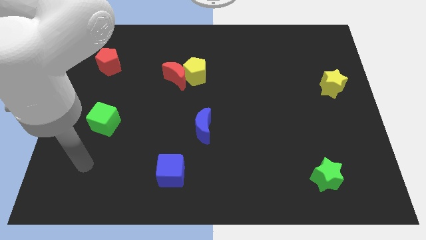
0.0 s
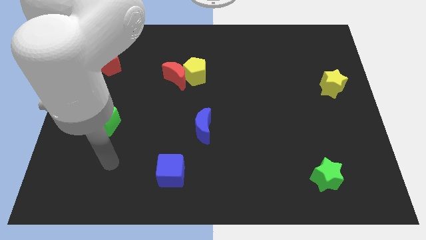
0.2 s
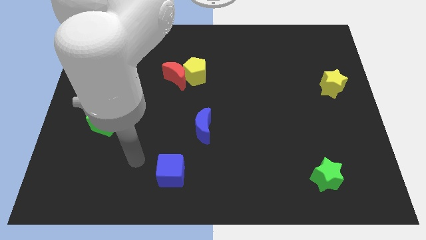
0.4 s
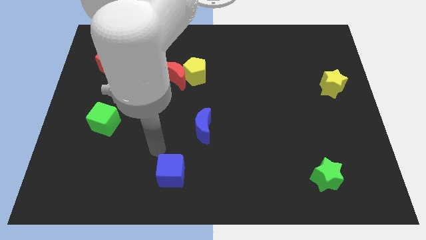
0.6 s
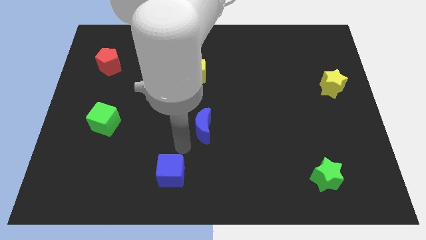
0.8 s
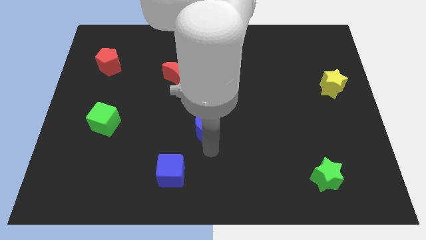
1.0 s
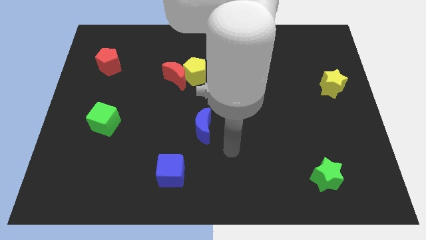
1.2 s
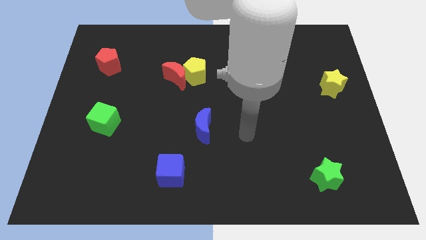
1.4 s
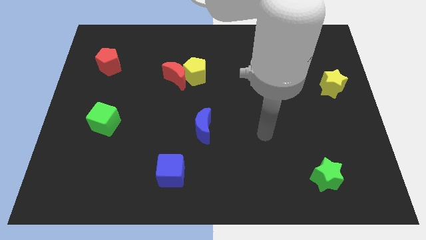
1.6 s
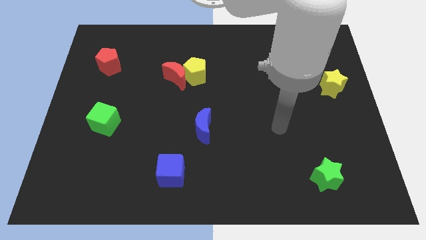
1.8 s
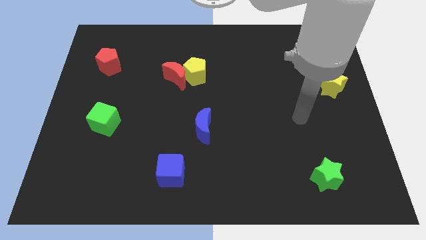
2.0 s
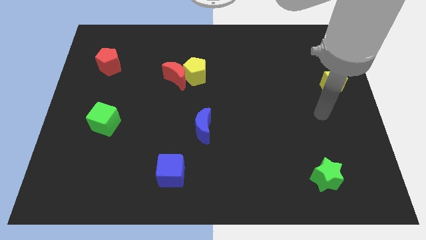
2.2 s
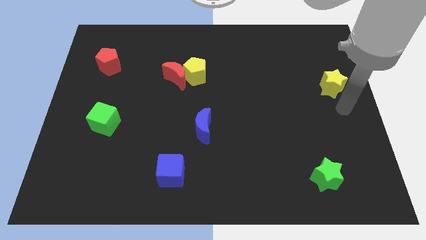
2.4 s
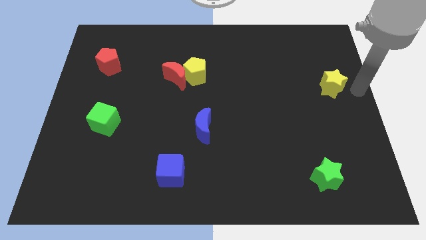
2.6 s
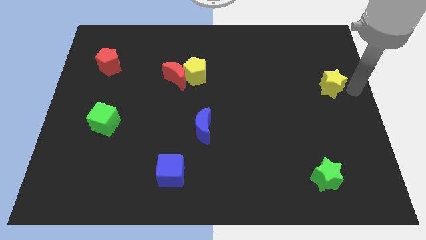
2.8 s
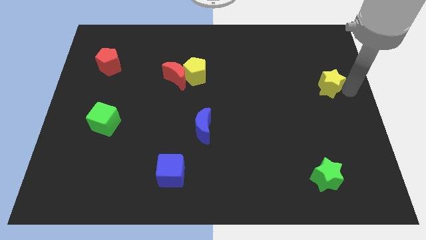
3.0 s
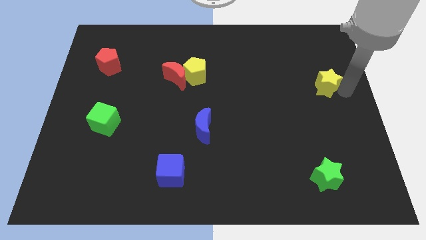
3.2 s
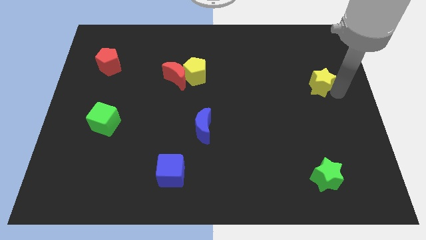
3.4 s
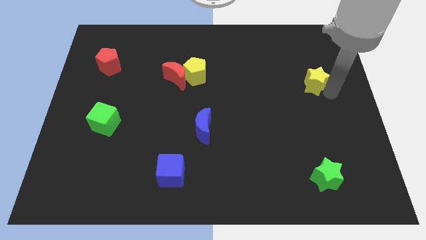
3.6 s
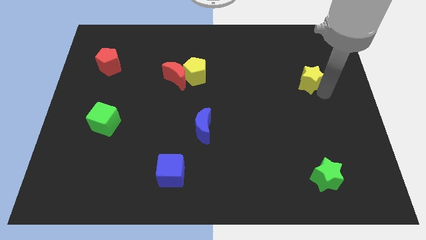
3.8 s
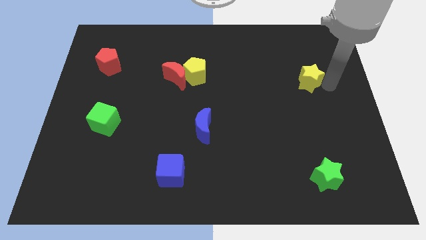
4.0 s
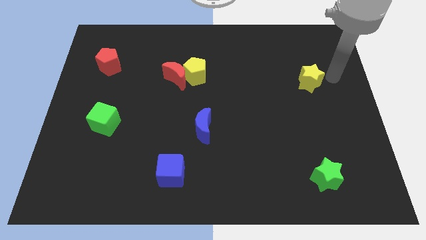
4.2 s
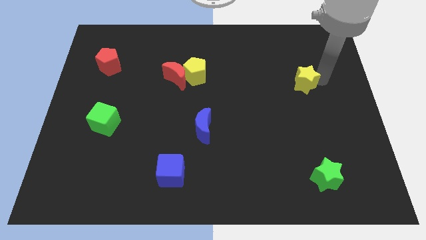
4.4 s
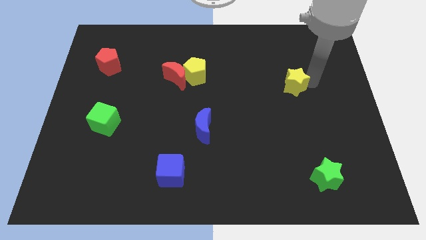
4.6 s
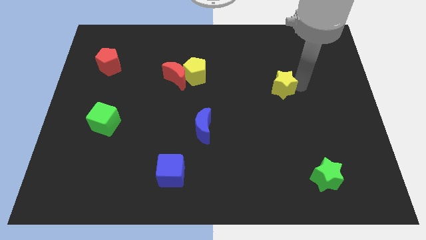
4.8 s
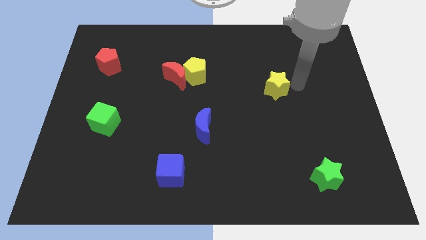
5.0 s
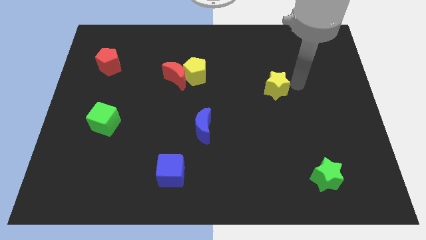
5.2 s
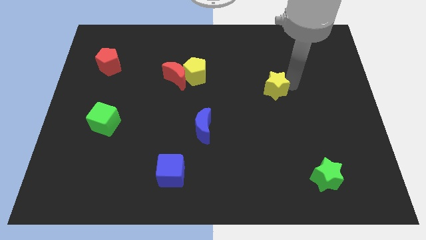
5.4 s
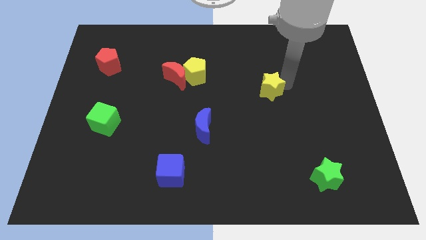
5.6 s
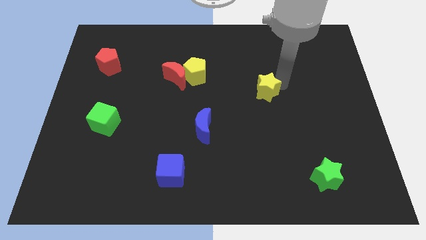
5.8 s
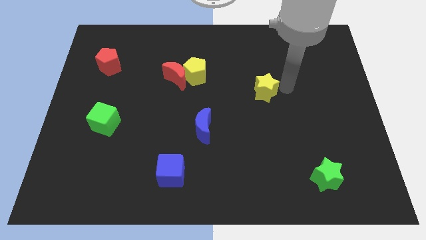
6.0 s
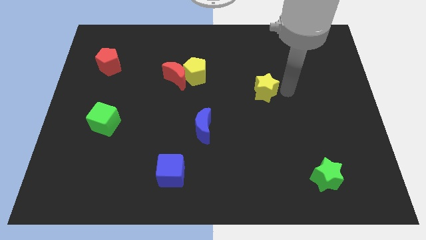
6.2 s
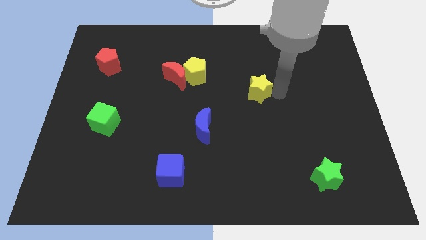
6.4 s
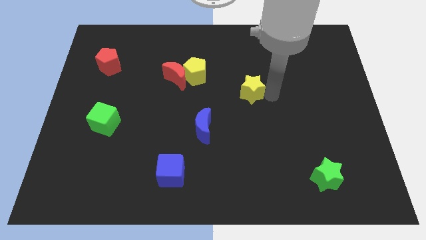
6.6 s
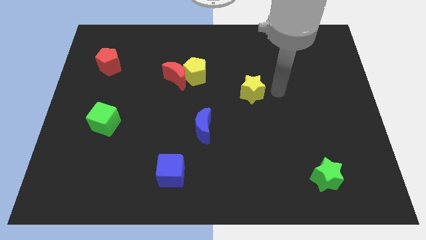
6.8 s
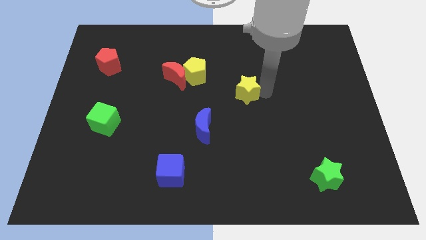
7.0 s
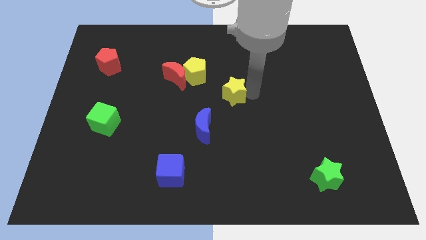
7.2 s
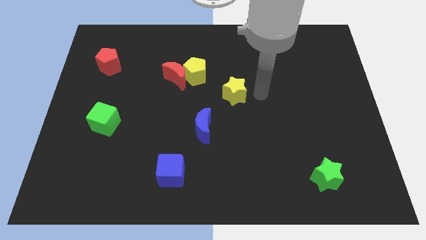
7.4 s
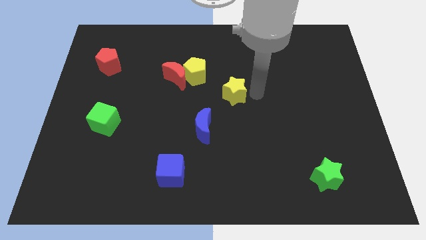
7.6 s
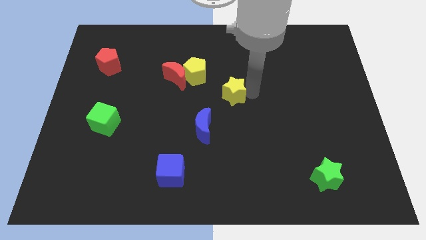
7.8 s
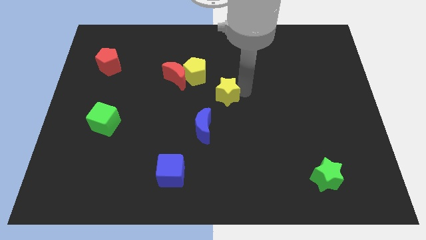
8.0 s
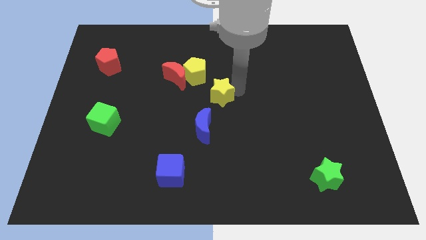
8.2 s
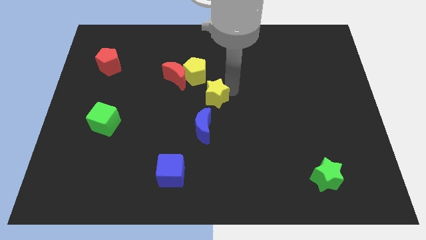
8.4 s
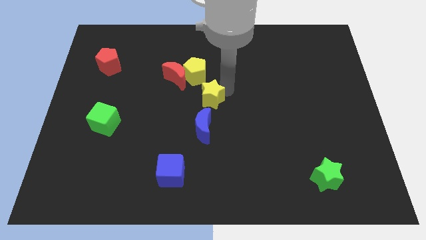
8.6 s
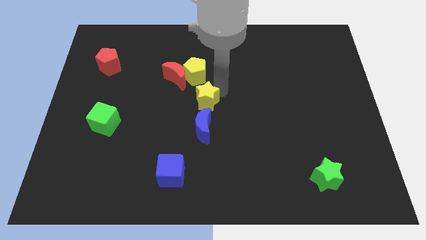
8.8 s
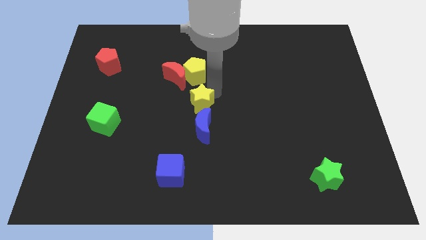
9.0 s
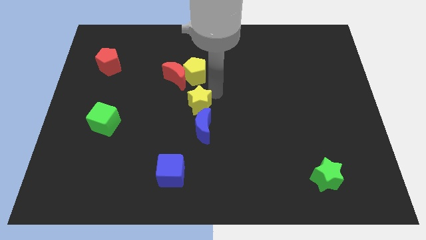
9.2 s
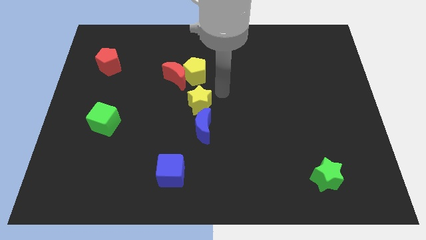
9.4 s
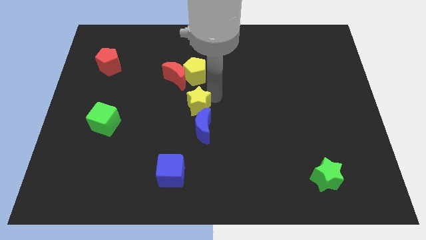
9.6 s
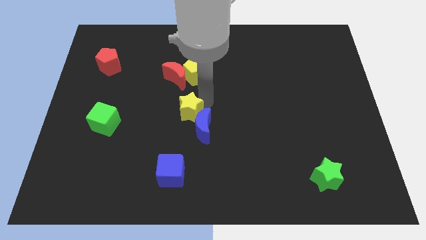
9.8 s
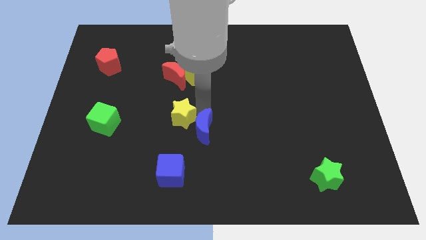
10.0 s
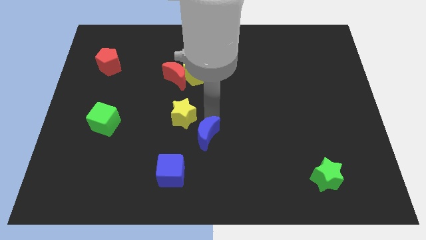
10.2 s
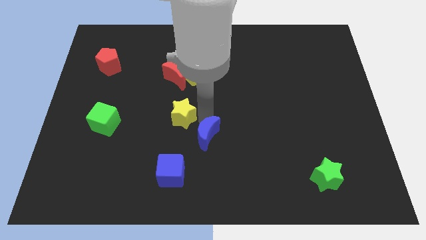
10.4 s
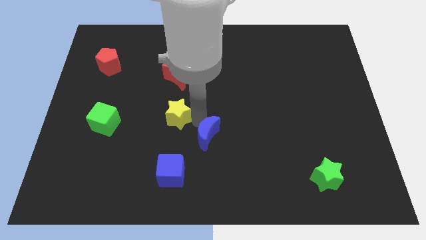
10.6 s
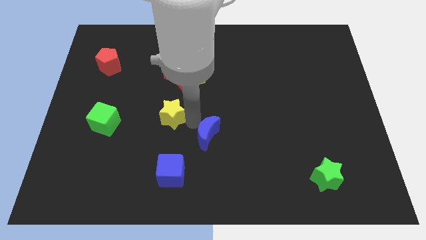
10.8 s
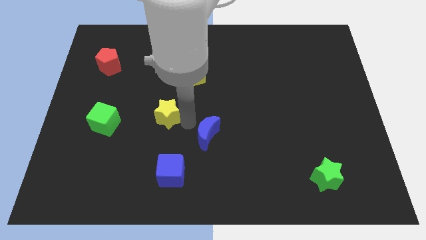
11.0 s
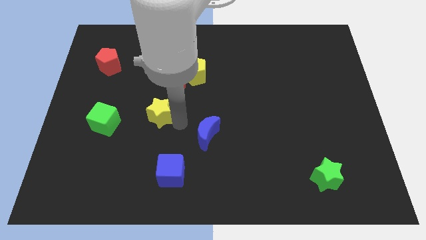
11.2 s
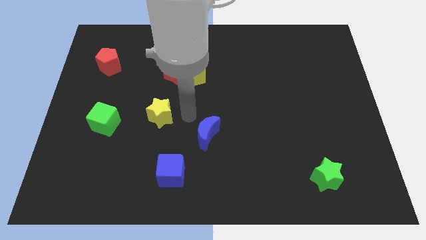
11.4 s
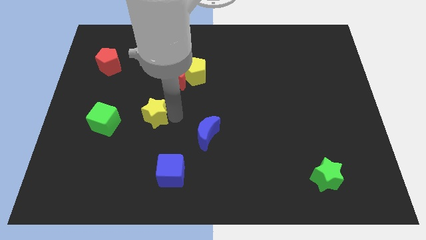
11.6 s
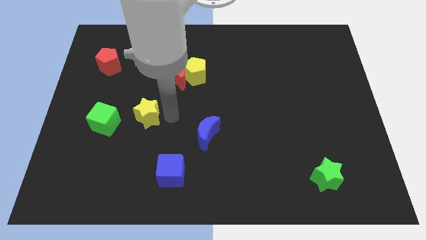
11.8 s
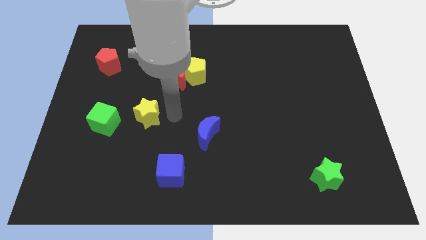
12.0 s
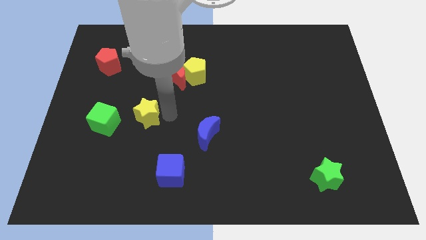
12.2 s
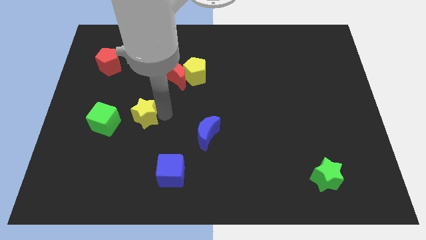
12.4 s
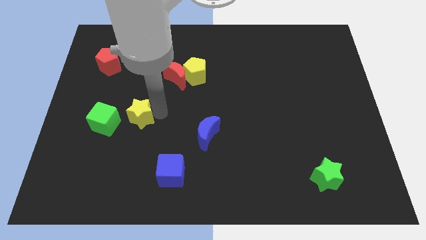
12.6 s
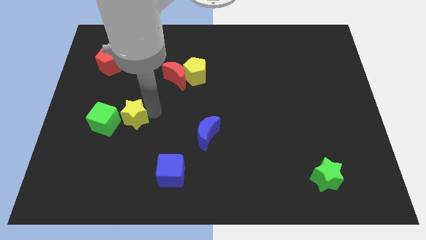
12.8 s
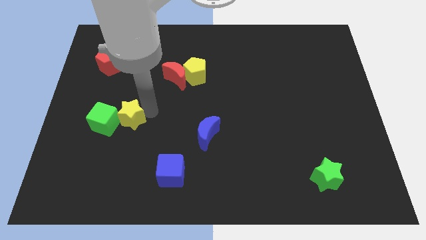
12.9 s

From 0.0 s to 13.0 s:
slide the yellow star to the green cube
